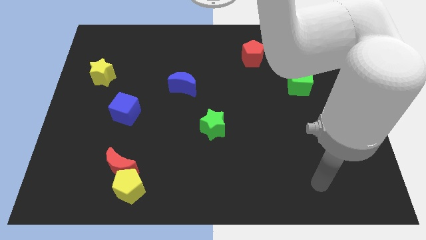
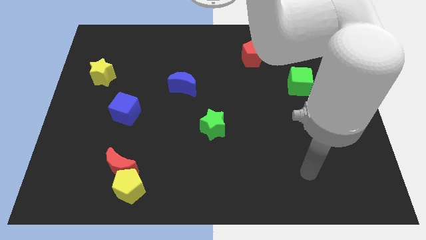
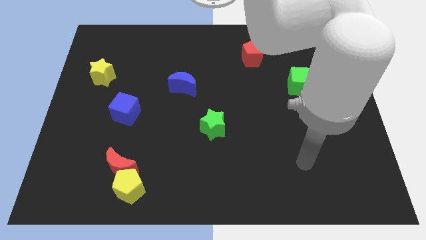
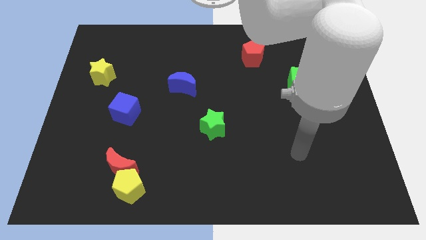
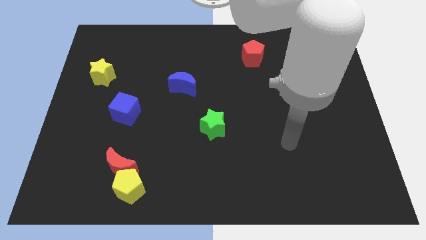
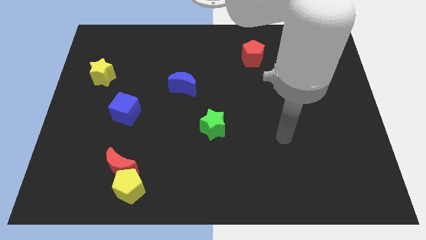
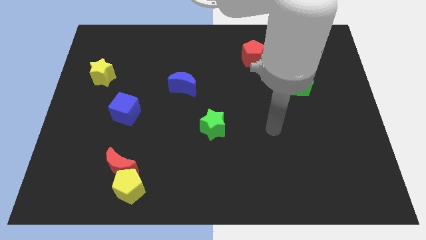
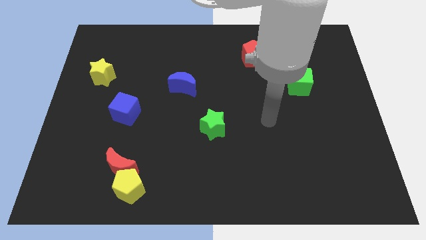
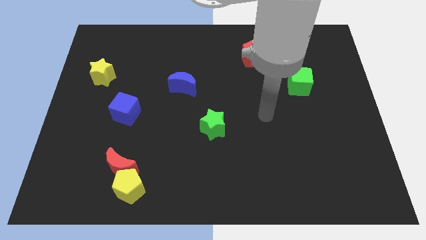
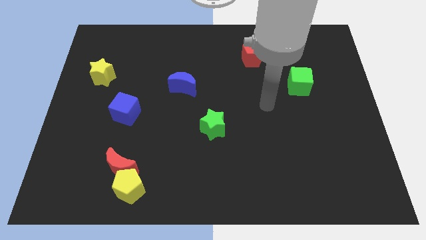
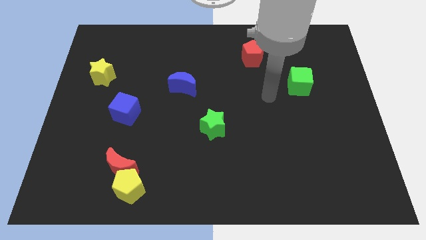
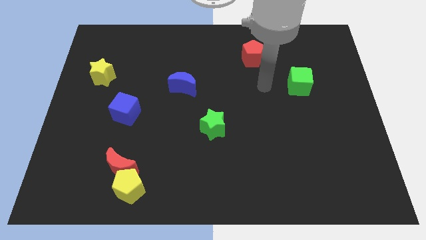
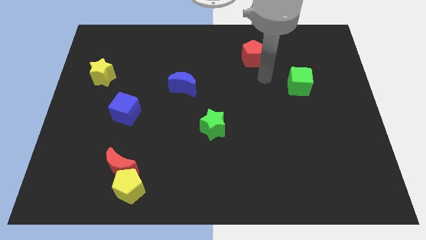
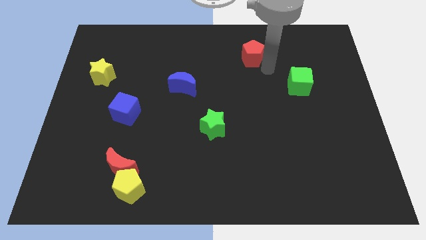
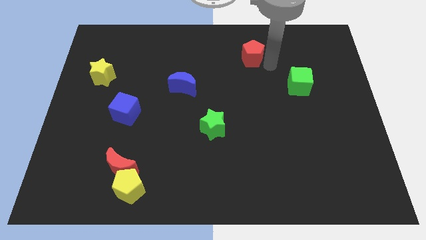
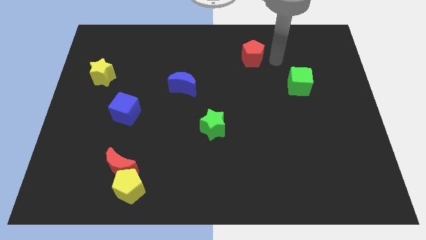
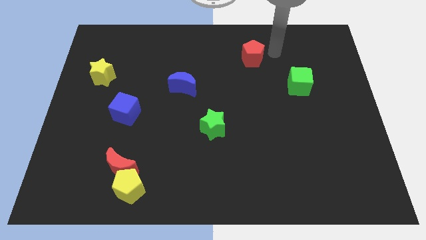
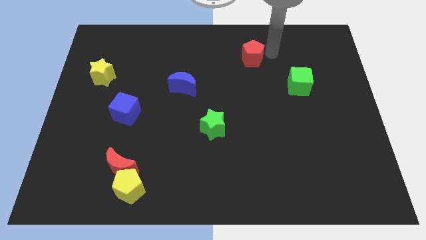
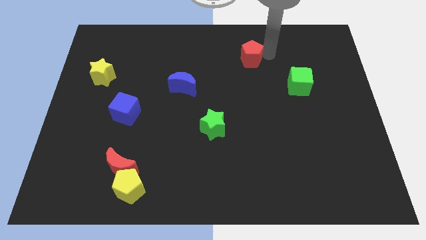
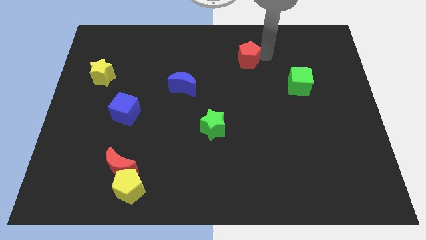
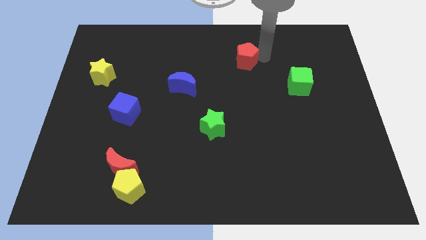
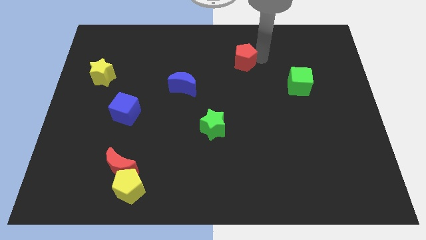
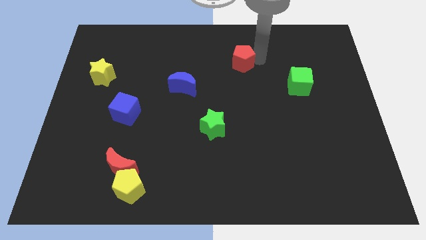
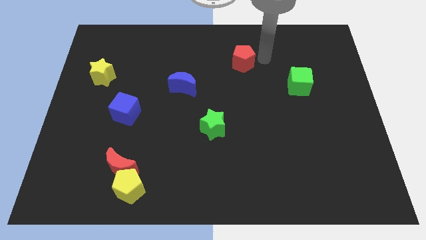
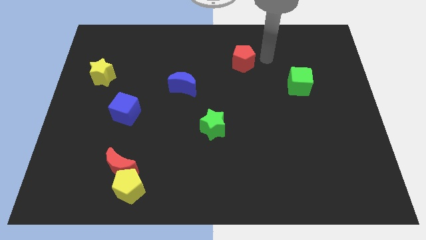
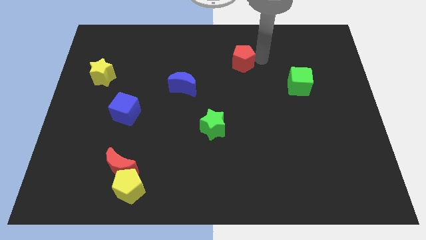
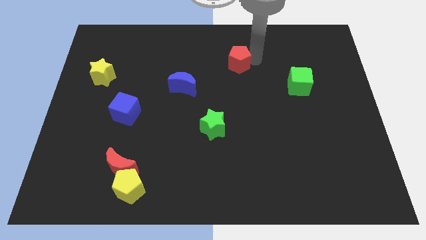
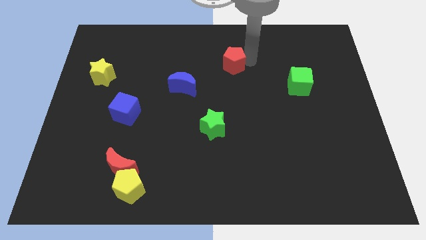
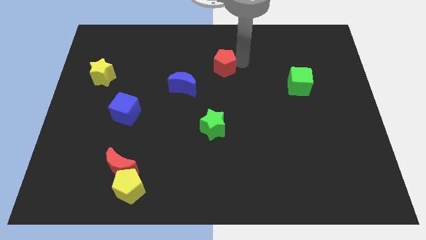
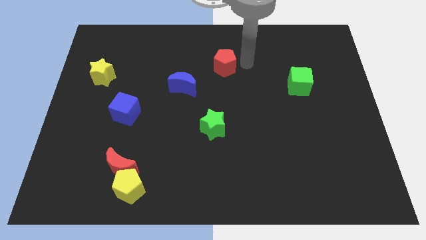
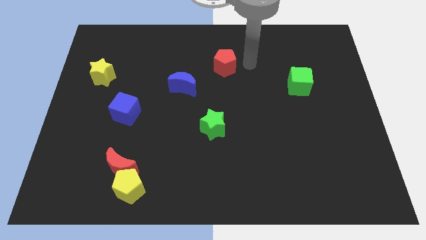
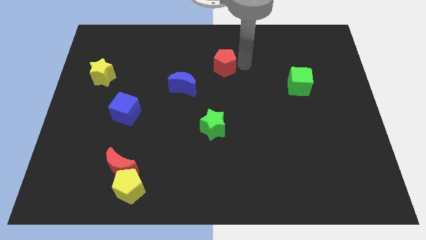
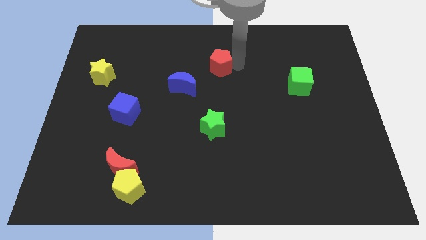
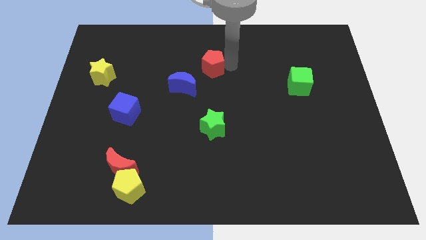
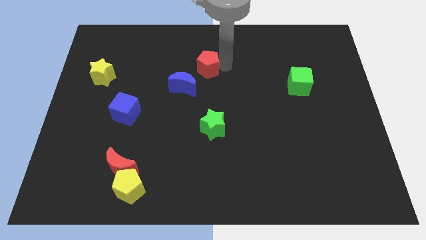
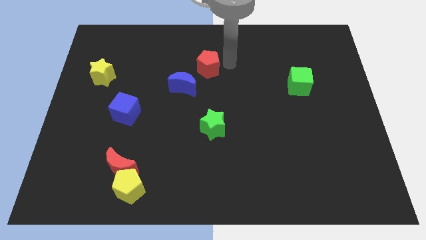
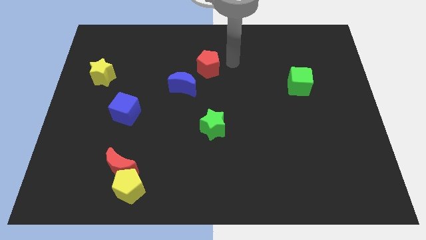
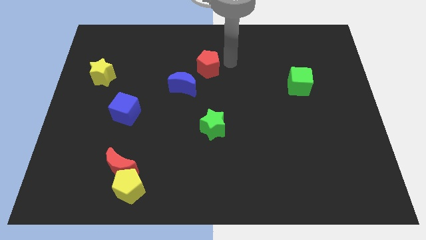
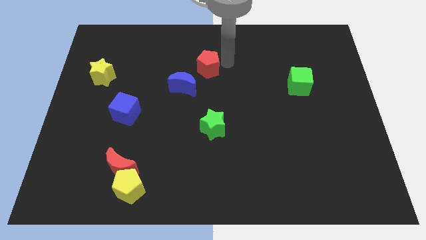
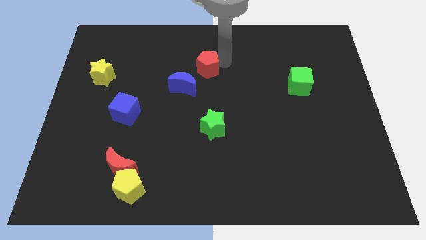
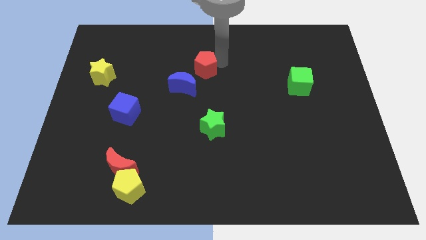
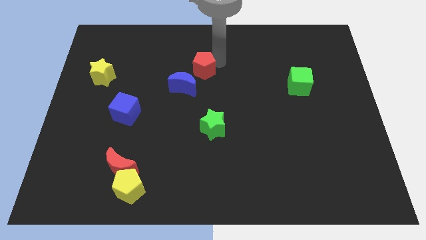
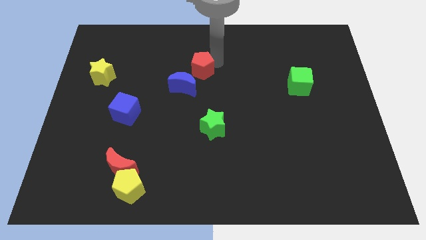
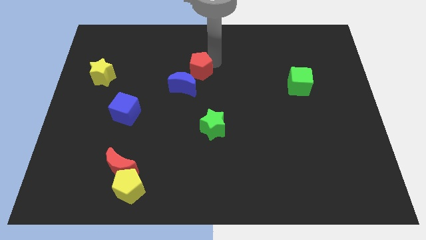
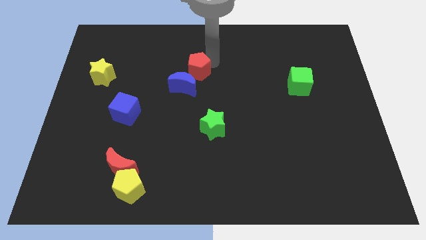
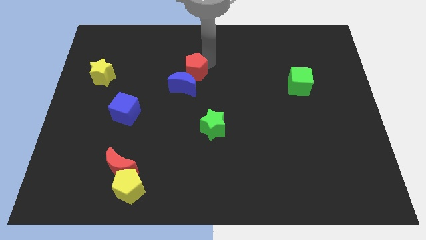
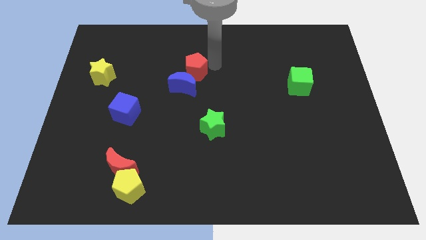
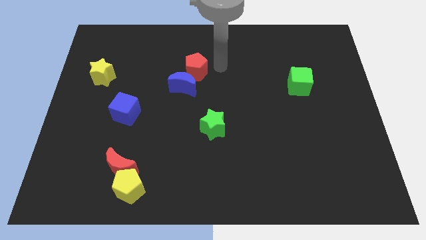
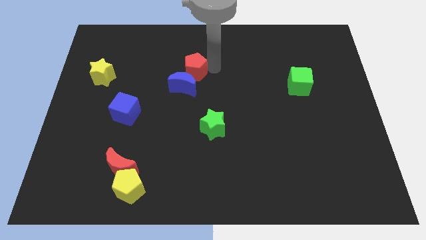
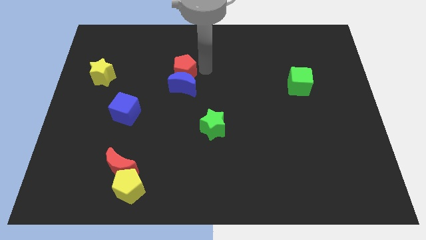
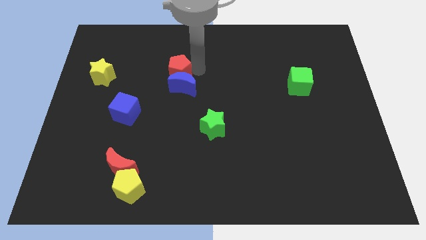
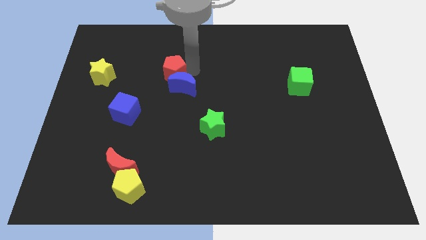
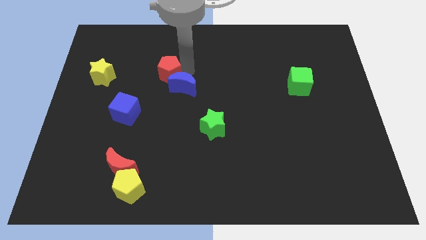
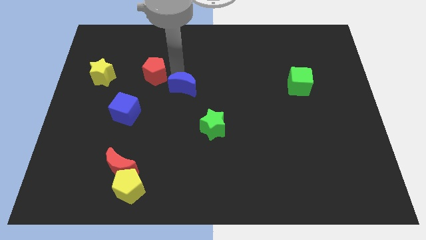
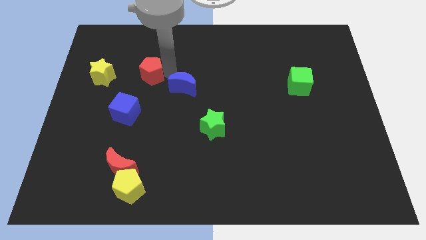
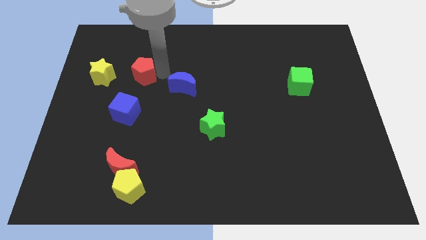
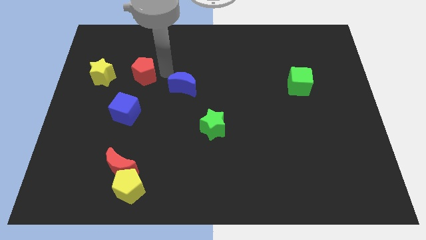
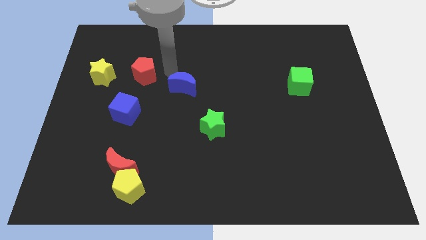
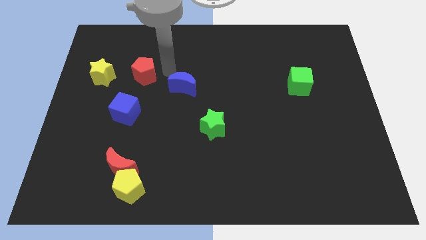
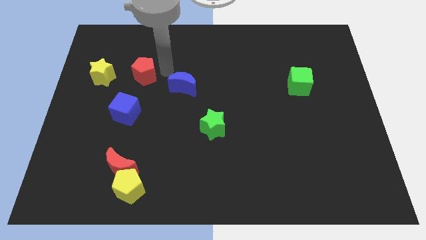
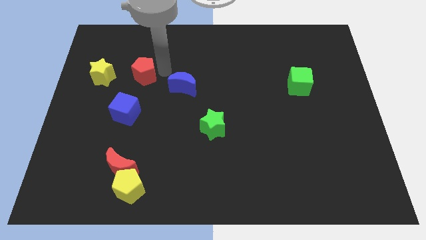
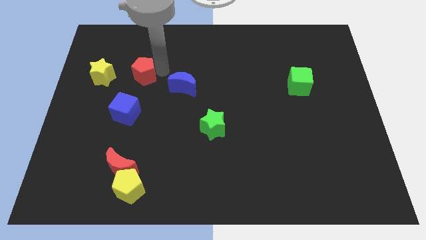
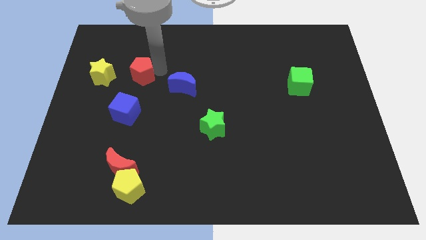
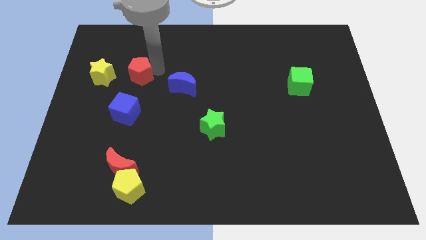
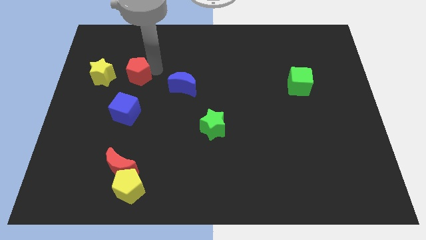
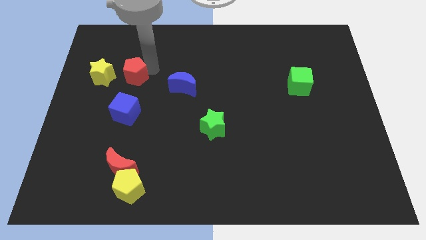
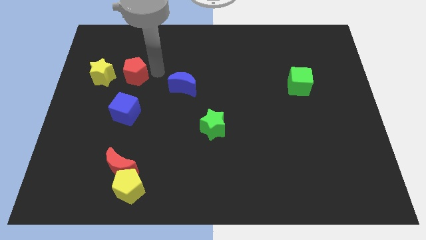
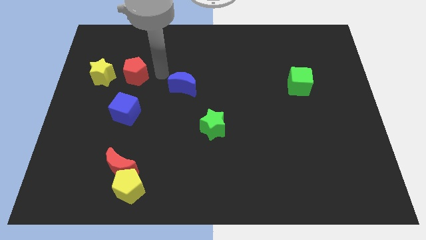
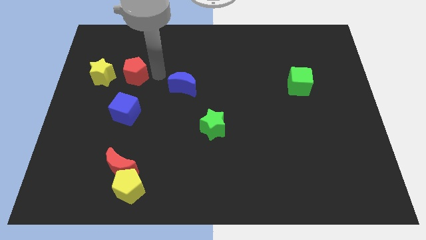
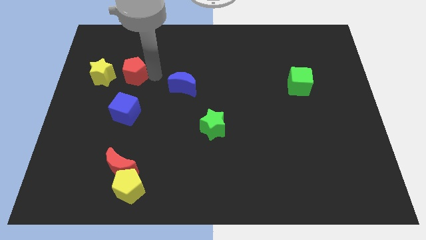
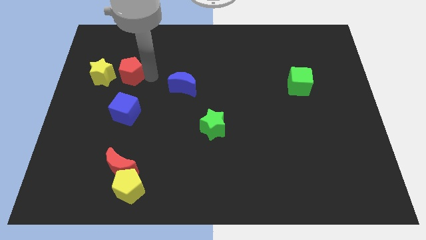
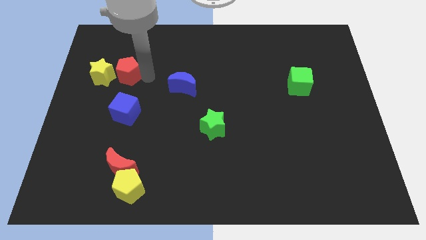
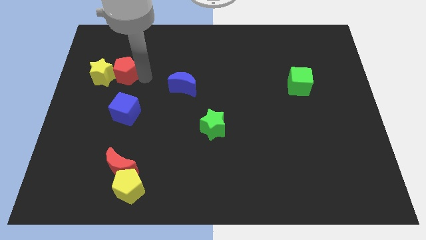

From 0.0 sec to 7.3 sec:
slide the red pentagon towards the yellow star
